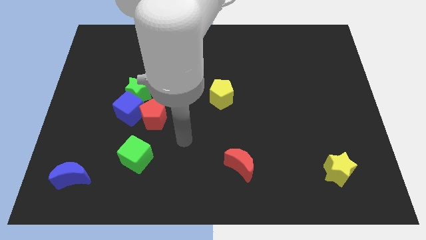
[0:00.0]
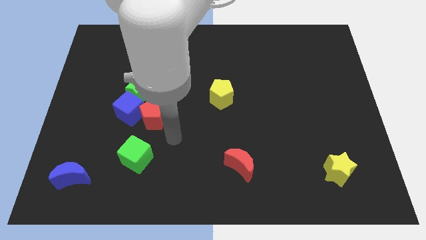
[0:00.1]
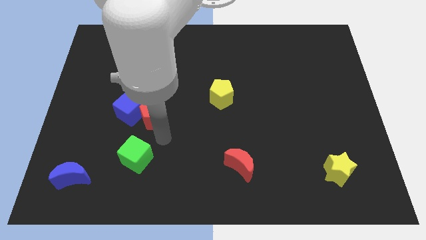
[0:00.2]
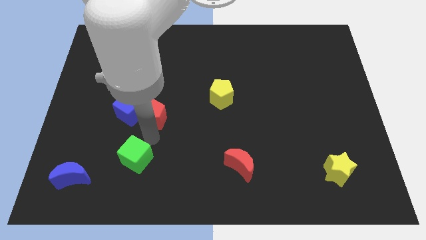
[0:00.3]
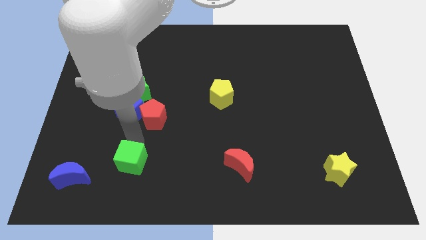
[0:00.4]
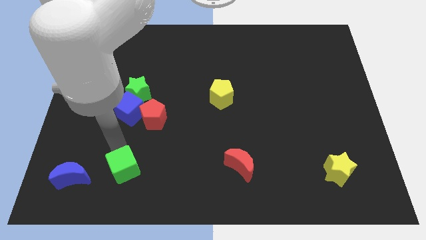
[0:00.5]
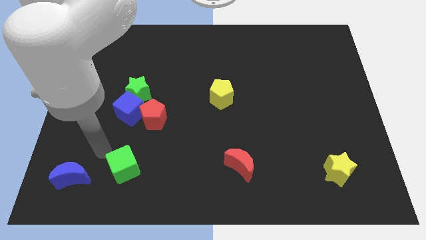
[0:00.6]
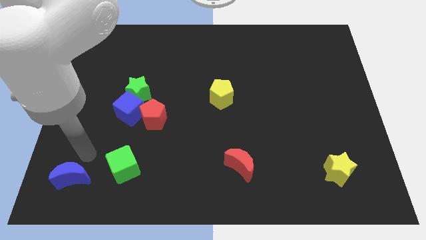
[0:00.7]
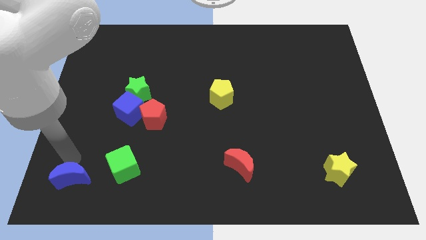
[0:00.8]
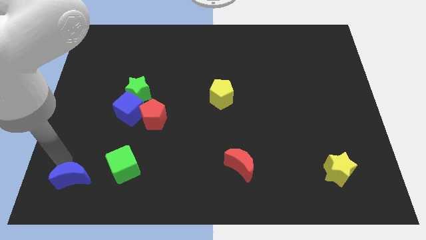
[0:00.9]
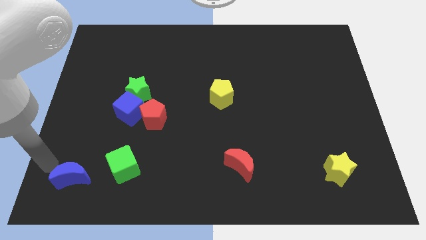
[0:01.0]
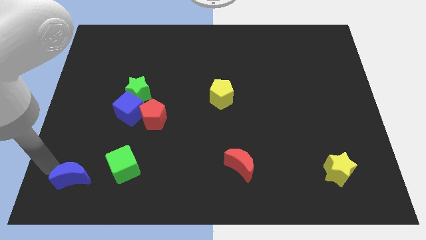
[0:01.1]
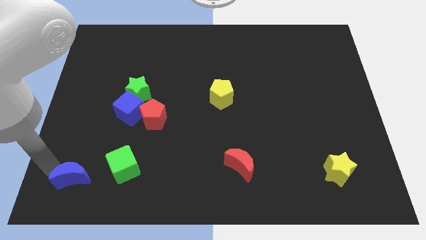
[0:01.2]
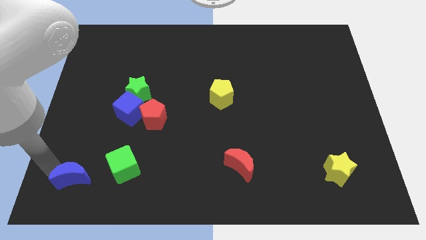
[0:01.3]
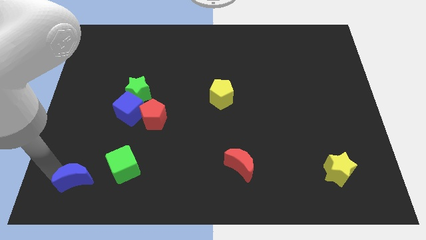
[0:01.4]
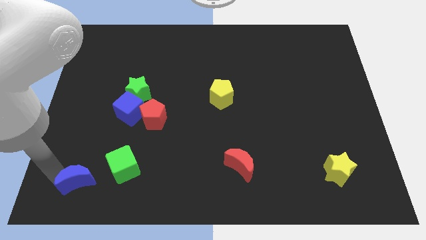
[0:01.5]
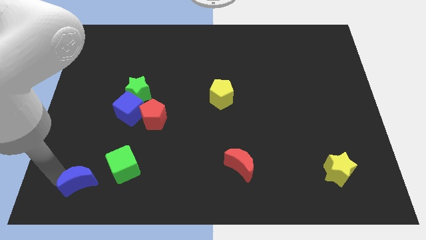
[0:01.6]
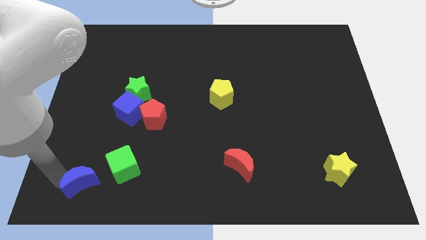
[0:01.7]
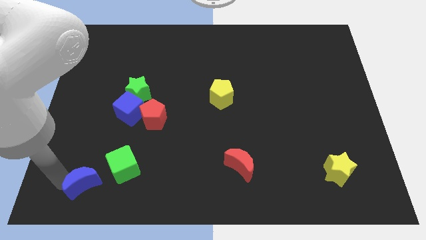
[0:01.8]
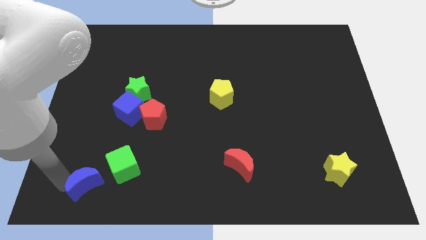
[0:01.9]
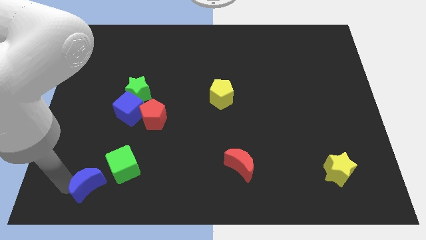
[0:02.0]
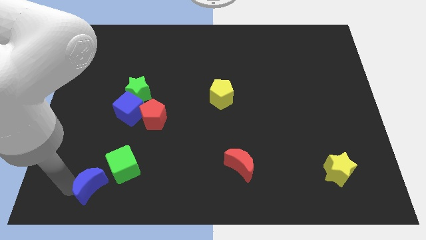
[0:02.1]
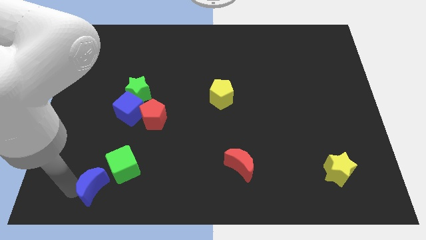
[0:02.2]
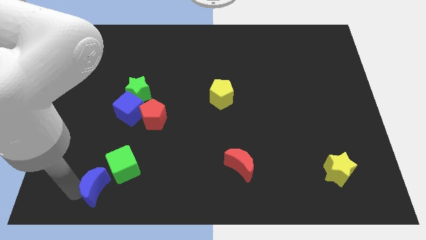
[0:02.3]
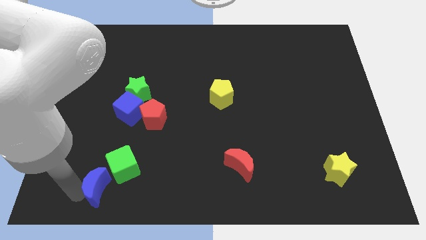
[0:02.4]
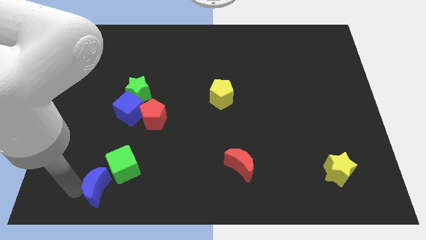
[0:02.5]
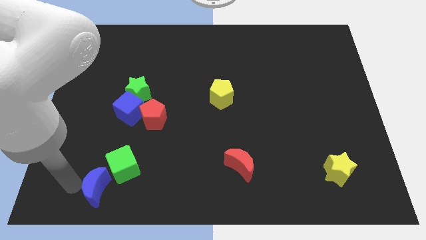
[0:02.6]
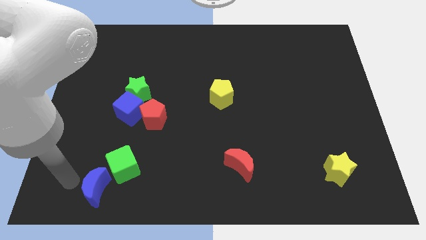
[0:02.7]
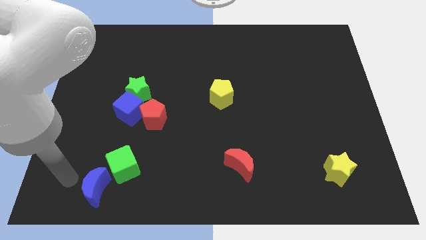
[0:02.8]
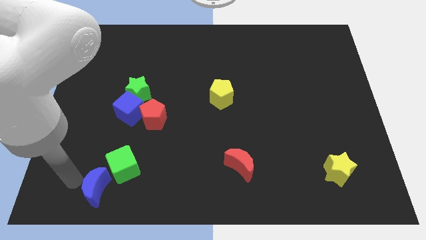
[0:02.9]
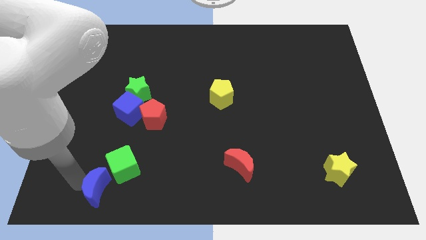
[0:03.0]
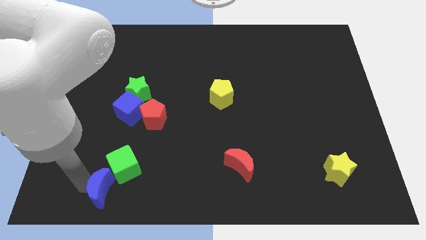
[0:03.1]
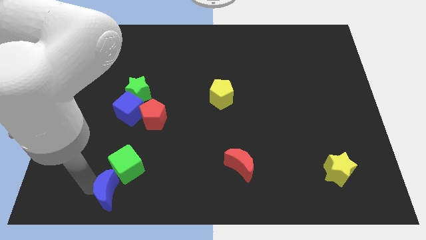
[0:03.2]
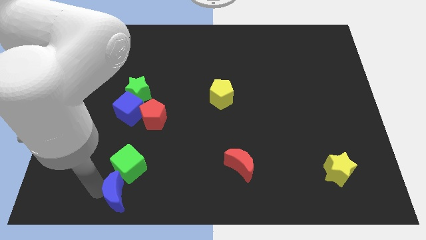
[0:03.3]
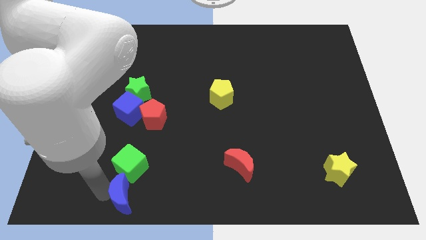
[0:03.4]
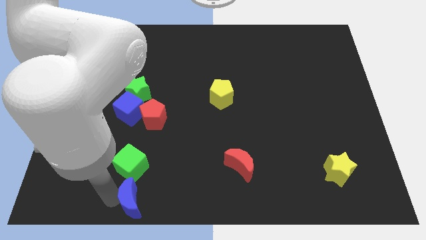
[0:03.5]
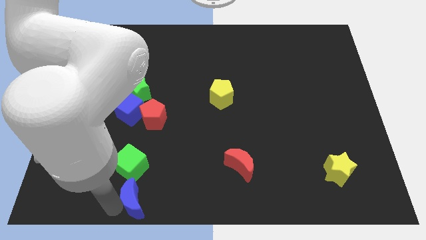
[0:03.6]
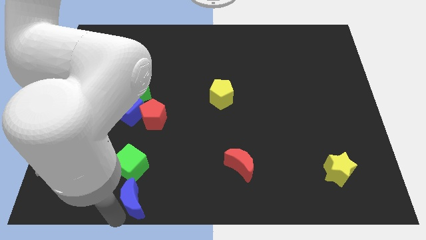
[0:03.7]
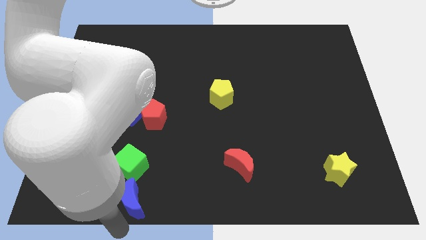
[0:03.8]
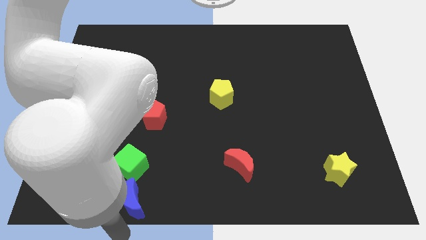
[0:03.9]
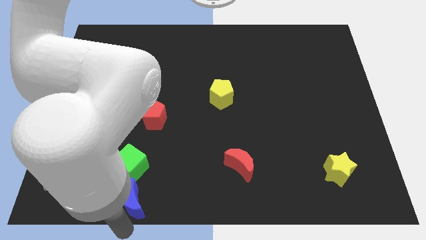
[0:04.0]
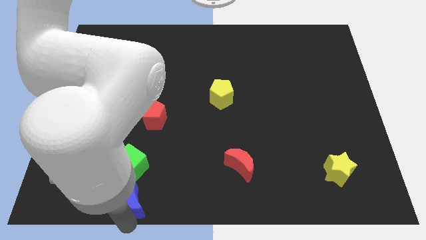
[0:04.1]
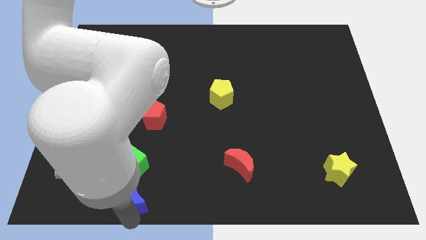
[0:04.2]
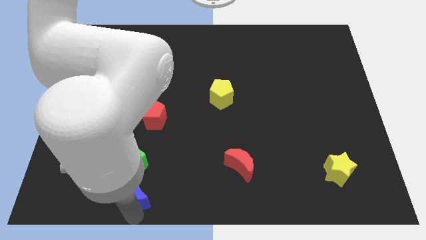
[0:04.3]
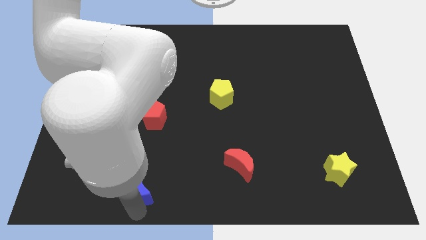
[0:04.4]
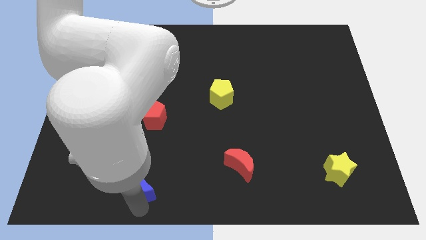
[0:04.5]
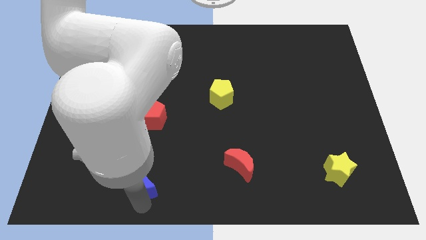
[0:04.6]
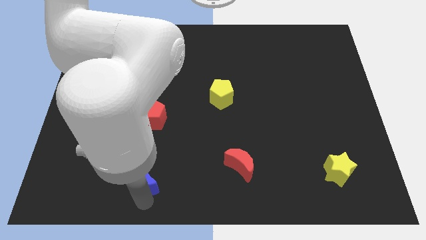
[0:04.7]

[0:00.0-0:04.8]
move the blue moon to the bottom of the red pentagon

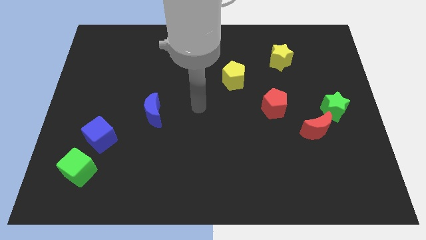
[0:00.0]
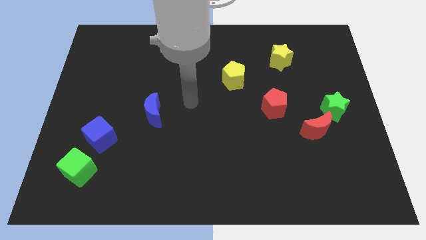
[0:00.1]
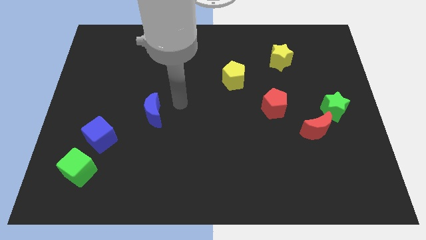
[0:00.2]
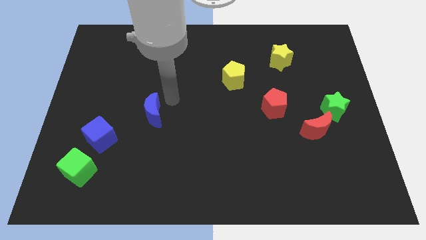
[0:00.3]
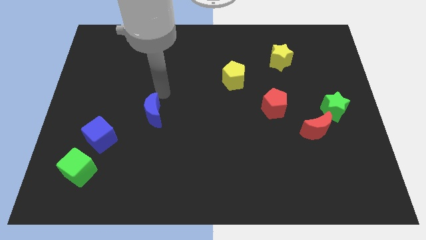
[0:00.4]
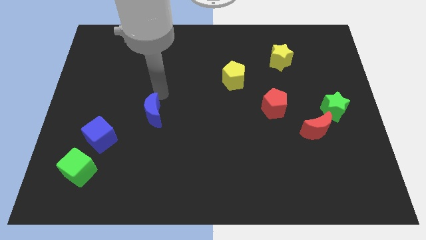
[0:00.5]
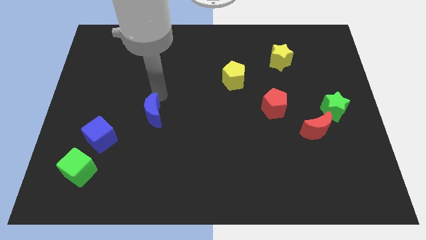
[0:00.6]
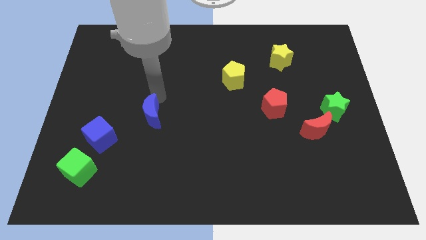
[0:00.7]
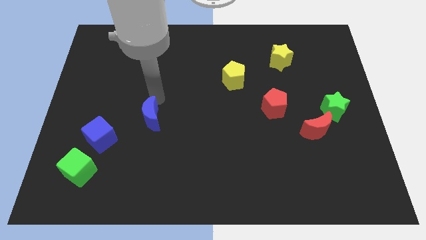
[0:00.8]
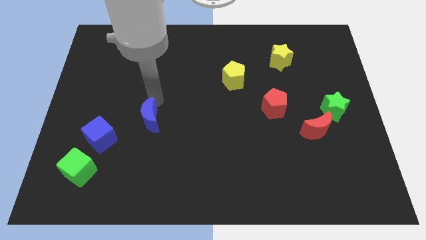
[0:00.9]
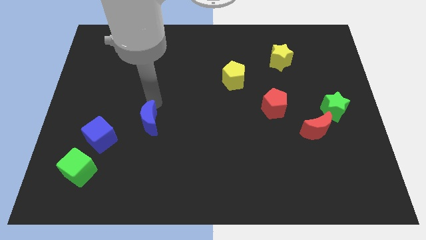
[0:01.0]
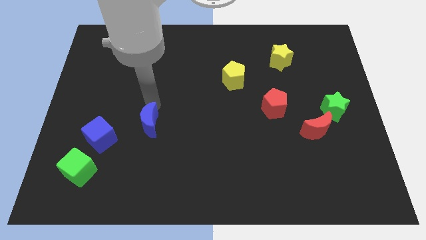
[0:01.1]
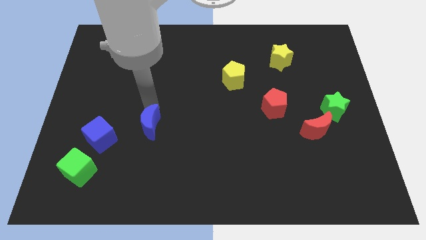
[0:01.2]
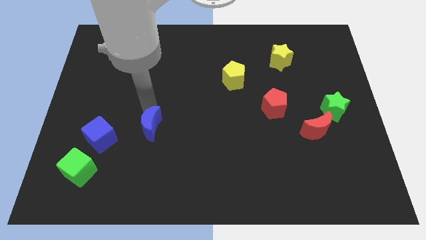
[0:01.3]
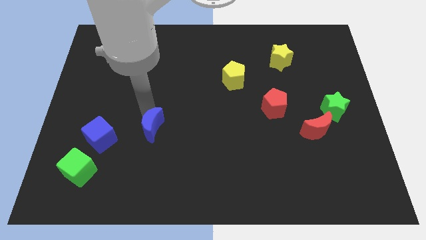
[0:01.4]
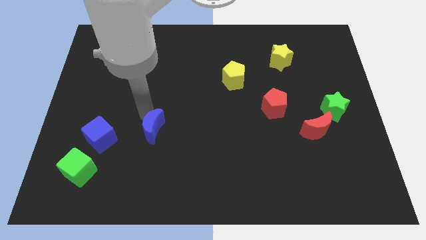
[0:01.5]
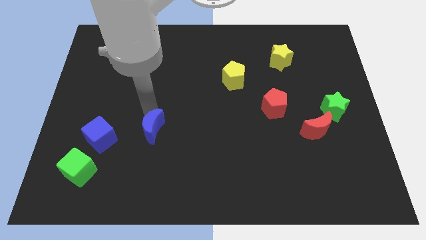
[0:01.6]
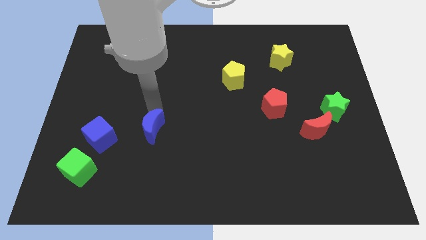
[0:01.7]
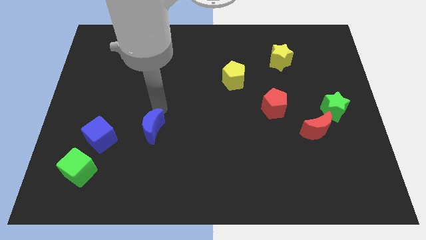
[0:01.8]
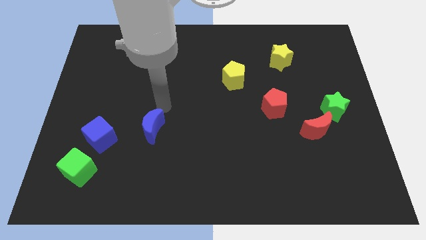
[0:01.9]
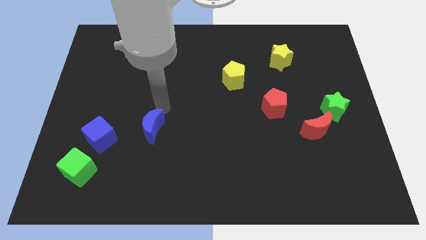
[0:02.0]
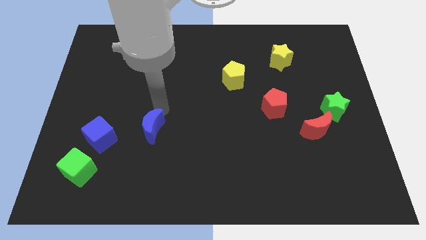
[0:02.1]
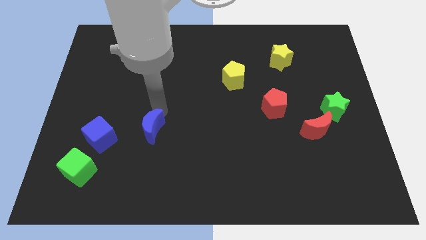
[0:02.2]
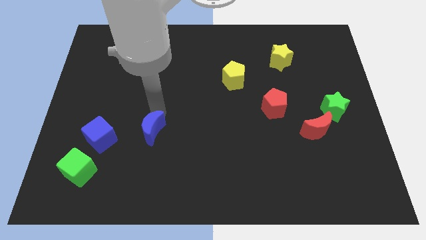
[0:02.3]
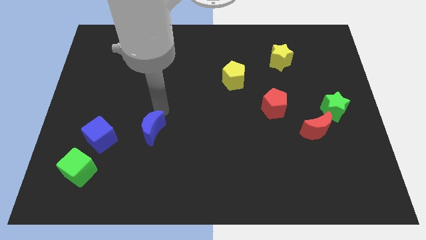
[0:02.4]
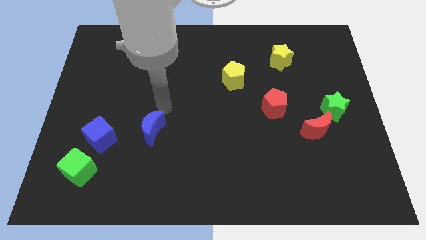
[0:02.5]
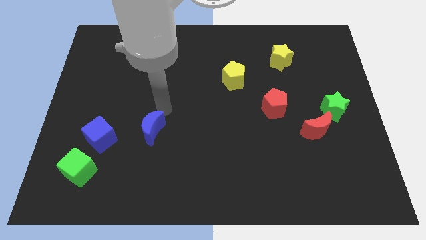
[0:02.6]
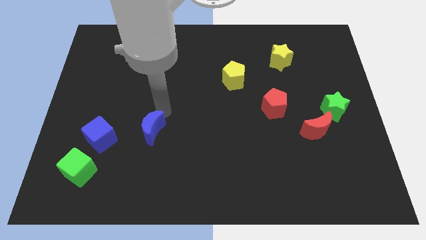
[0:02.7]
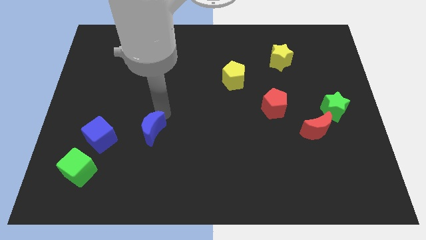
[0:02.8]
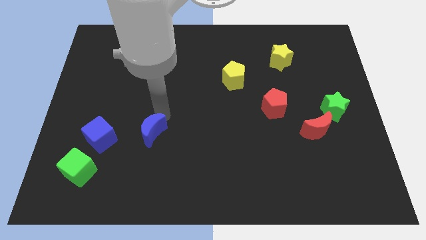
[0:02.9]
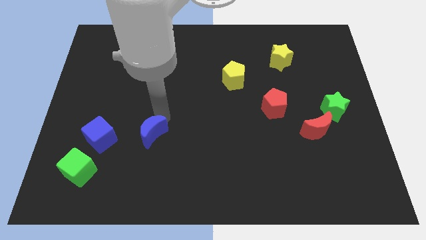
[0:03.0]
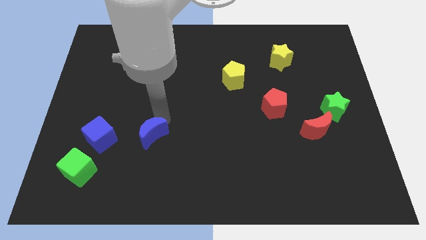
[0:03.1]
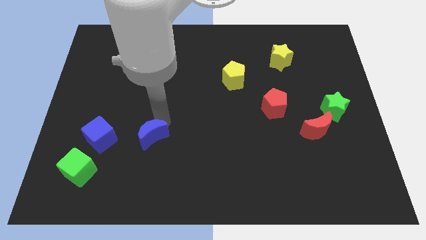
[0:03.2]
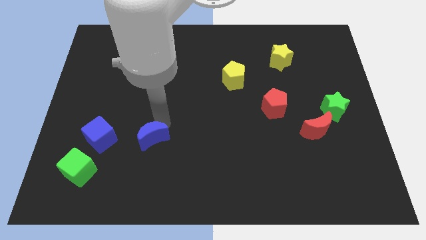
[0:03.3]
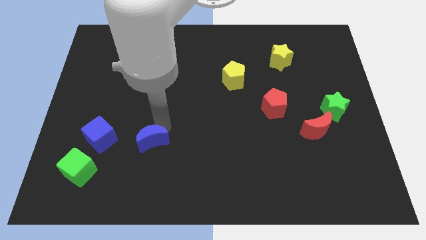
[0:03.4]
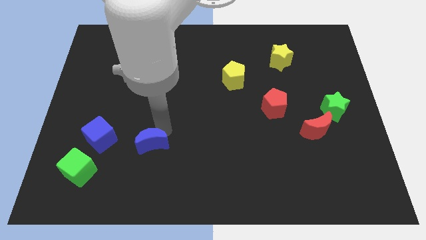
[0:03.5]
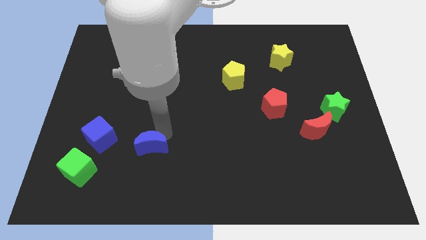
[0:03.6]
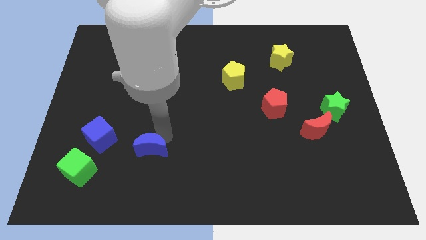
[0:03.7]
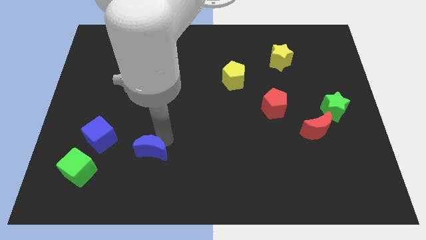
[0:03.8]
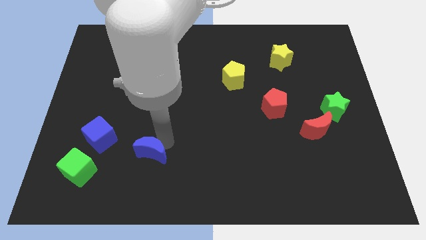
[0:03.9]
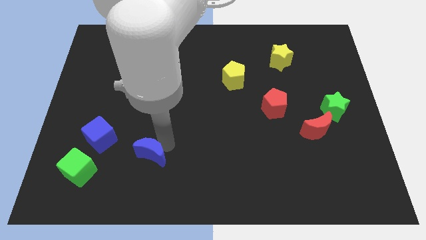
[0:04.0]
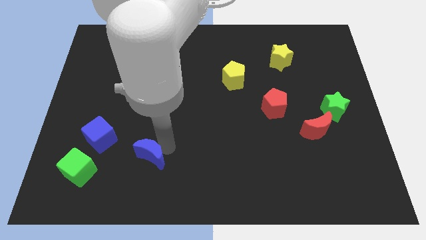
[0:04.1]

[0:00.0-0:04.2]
move the blue moon right of the green cube
